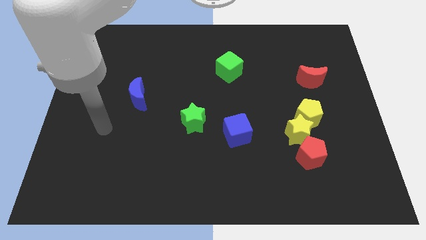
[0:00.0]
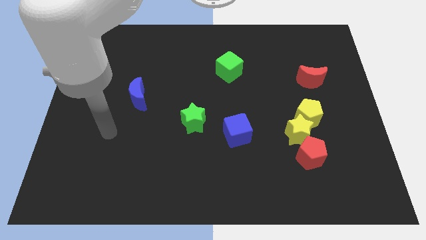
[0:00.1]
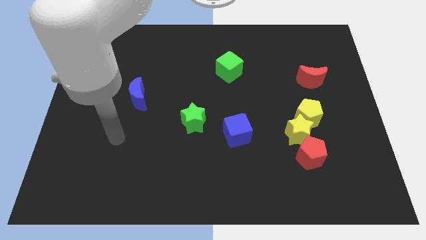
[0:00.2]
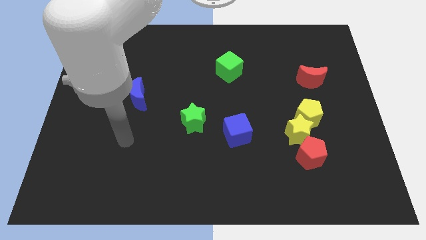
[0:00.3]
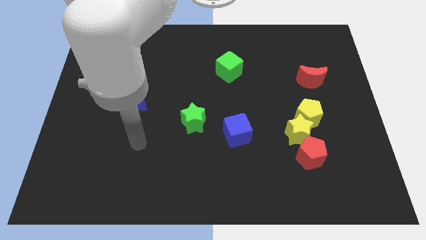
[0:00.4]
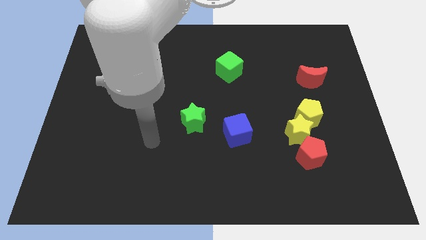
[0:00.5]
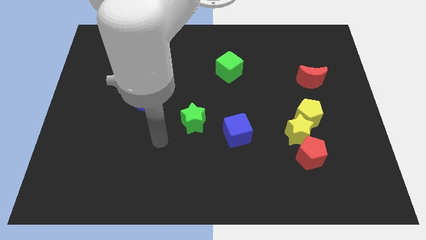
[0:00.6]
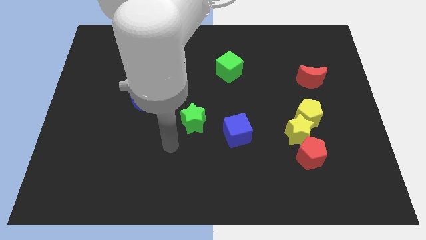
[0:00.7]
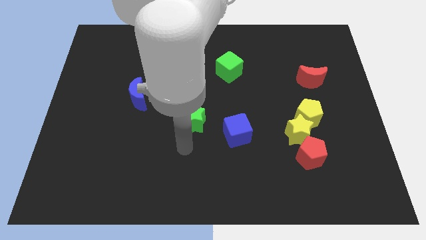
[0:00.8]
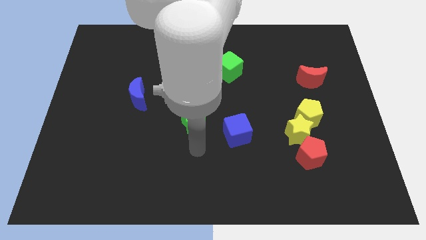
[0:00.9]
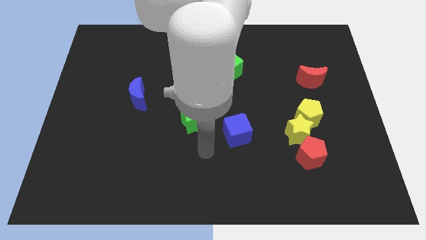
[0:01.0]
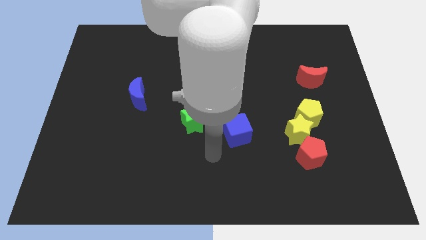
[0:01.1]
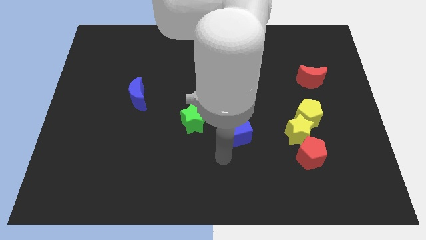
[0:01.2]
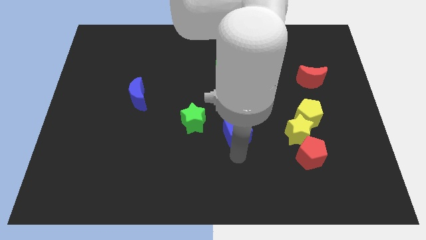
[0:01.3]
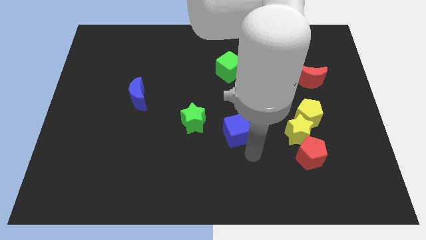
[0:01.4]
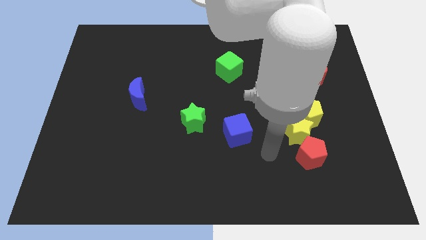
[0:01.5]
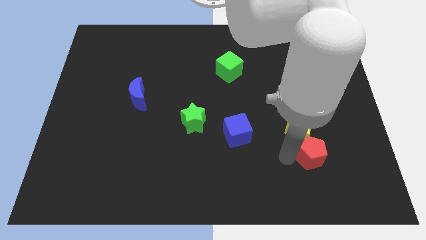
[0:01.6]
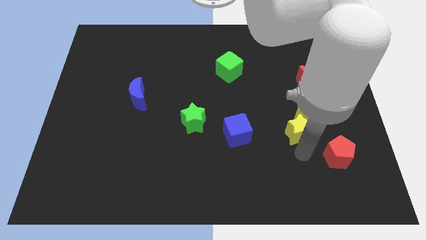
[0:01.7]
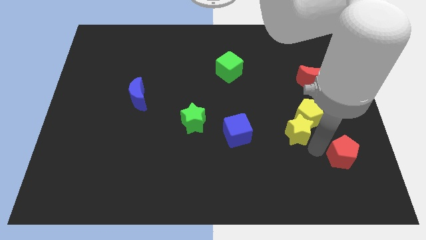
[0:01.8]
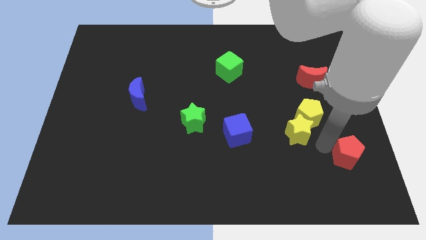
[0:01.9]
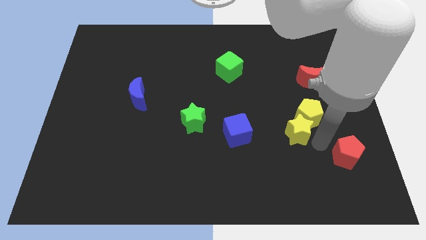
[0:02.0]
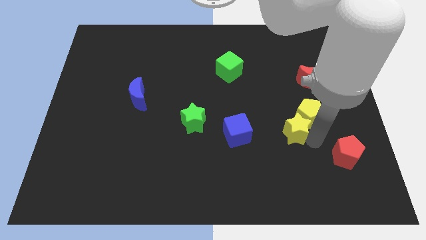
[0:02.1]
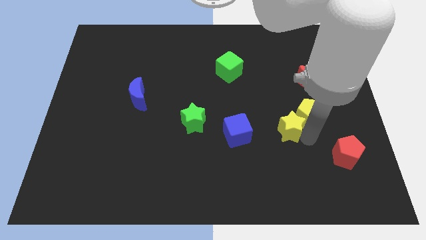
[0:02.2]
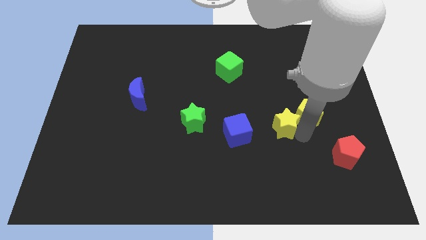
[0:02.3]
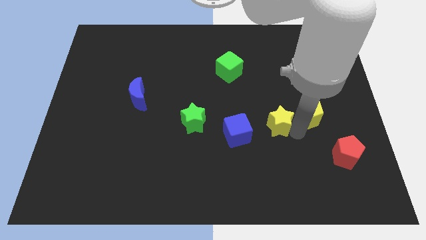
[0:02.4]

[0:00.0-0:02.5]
pull the yellow star apart from the yellow pentagon and red pentagon

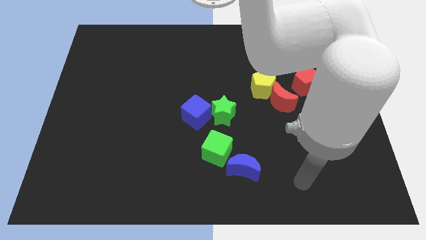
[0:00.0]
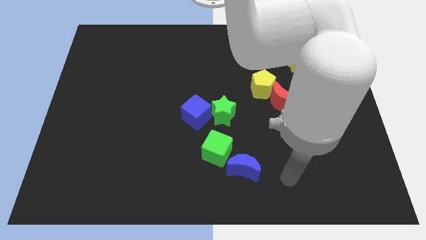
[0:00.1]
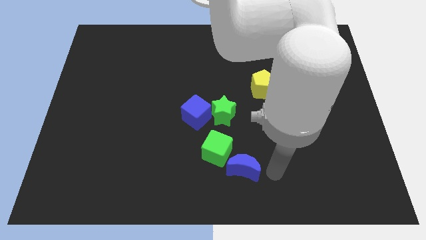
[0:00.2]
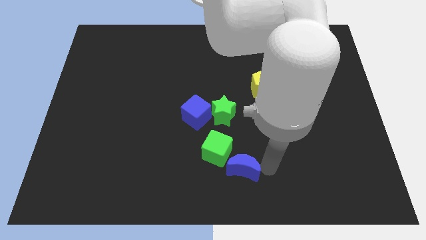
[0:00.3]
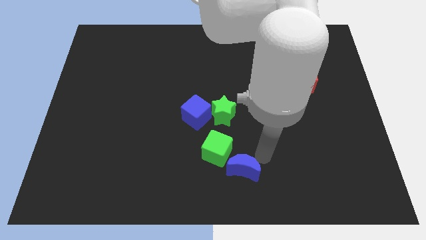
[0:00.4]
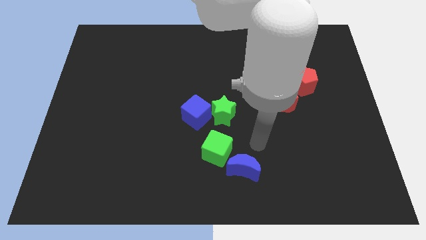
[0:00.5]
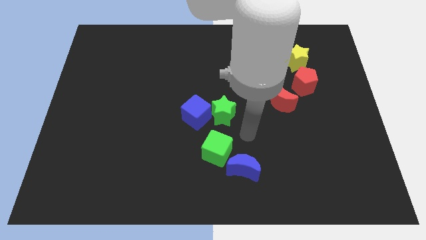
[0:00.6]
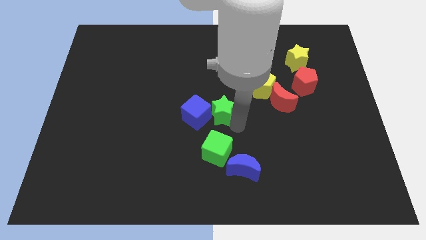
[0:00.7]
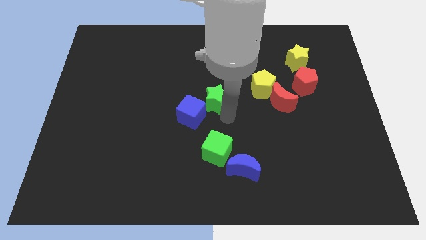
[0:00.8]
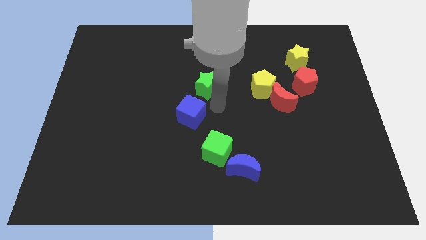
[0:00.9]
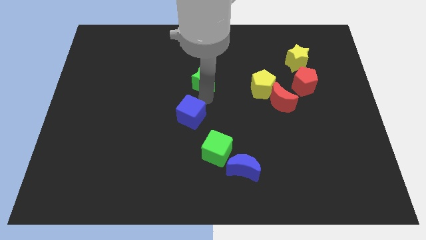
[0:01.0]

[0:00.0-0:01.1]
separate the blue cube from the green star

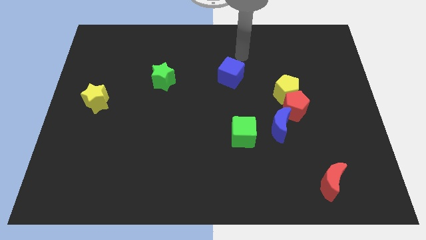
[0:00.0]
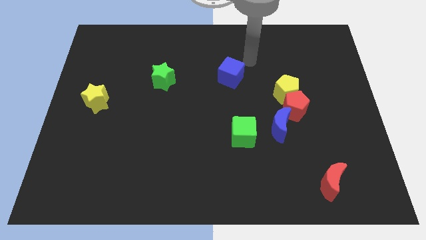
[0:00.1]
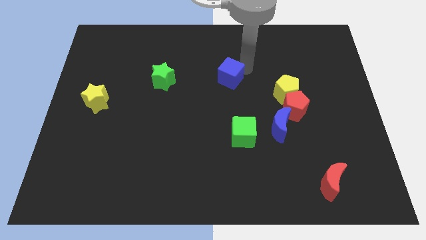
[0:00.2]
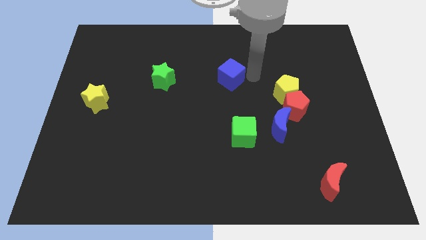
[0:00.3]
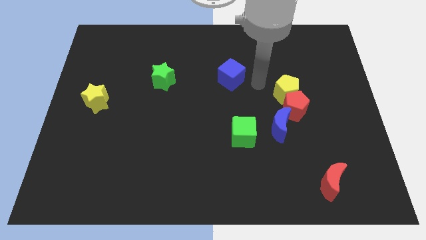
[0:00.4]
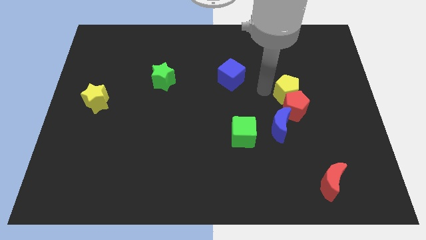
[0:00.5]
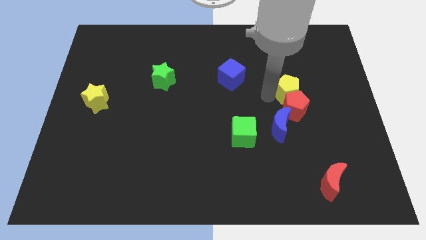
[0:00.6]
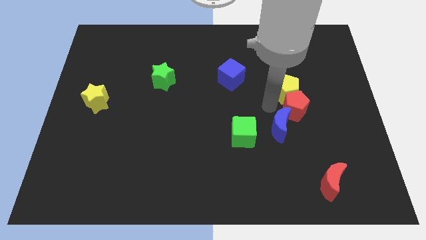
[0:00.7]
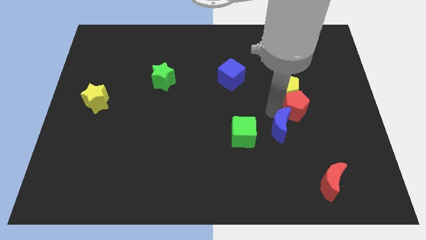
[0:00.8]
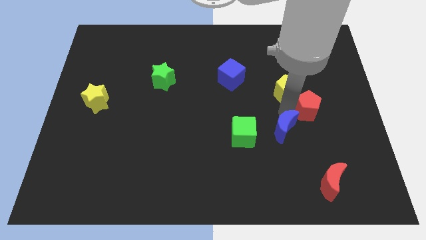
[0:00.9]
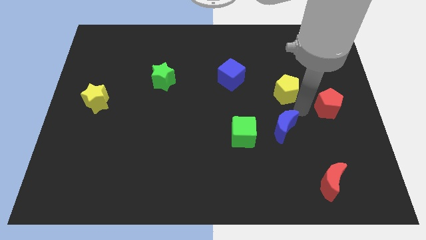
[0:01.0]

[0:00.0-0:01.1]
separate the yellow pentagon from the red pentagon

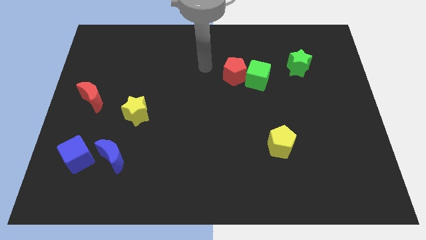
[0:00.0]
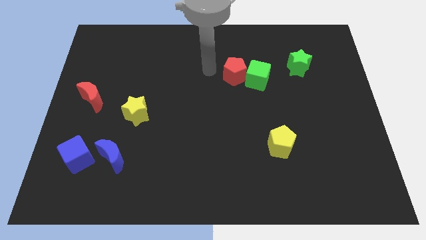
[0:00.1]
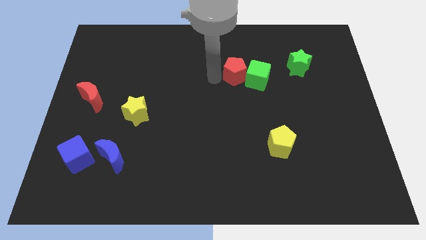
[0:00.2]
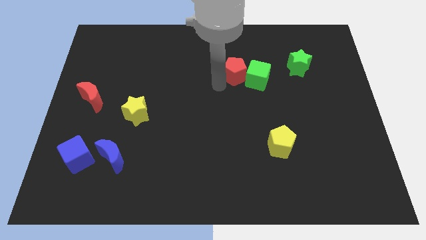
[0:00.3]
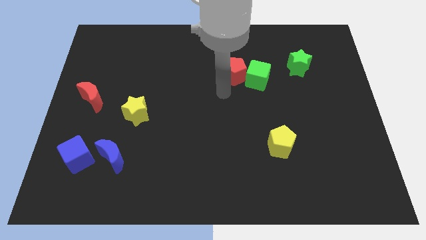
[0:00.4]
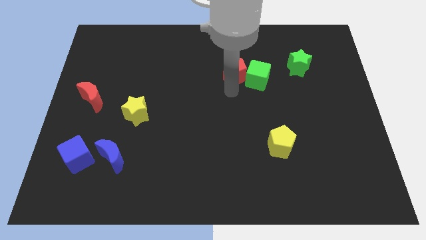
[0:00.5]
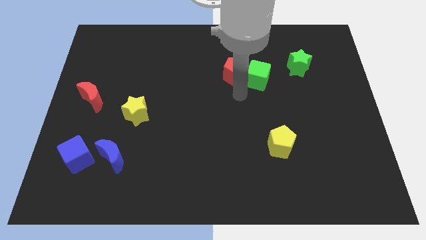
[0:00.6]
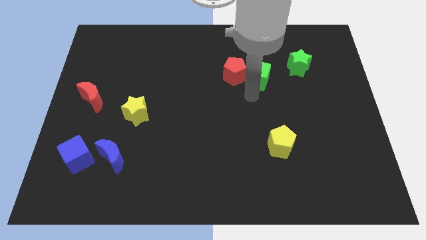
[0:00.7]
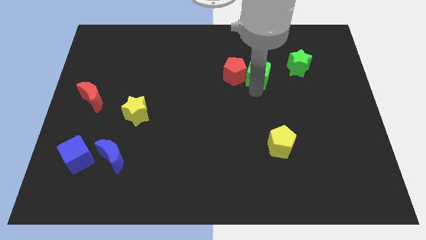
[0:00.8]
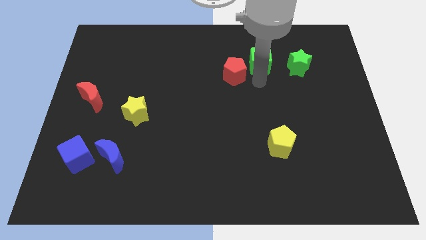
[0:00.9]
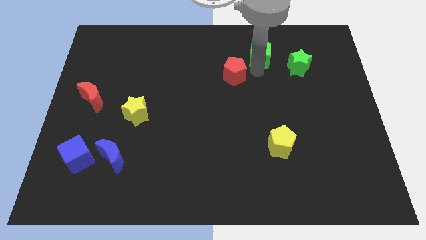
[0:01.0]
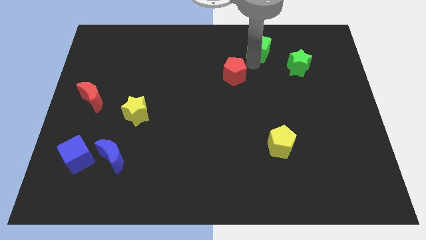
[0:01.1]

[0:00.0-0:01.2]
pull the red pentagon apart from the green cube

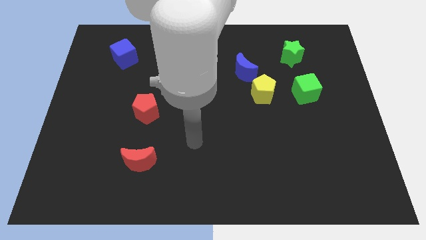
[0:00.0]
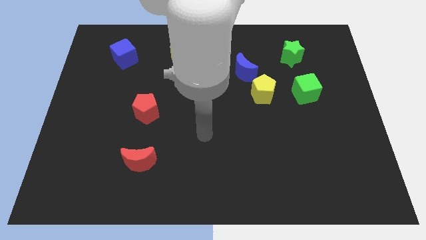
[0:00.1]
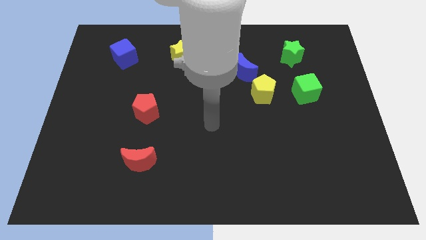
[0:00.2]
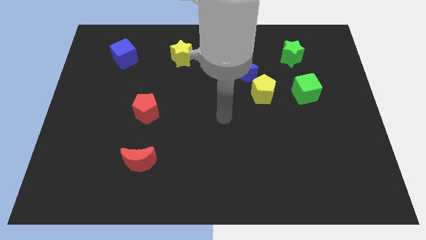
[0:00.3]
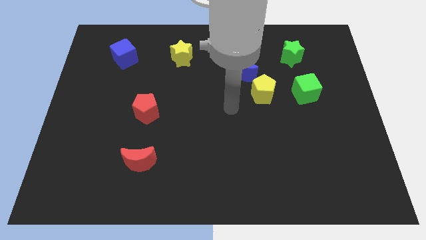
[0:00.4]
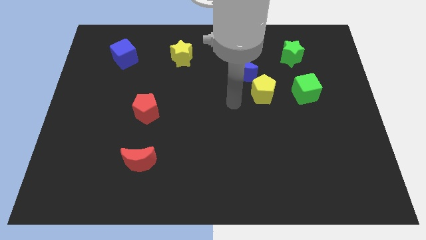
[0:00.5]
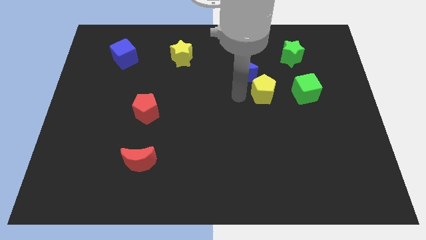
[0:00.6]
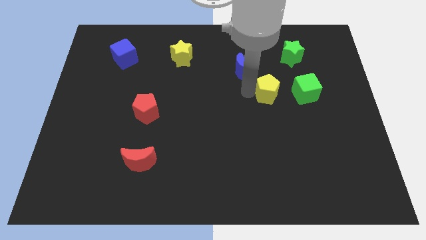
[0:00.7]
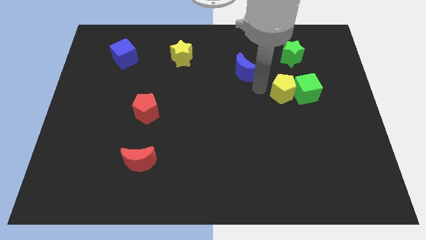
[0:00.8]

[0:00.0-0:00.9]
separate the blue moon from the yellow pentagon

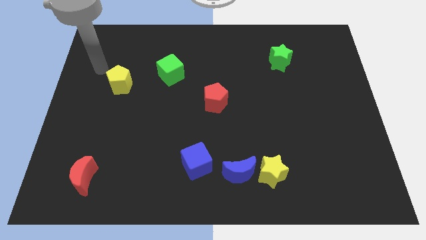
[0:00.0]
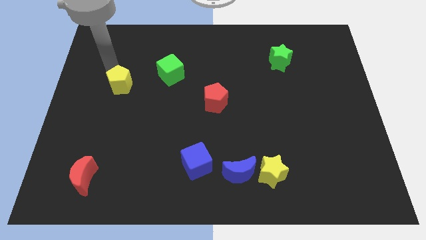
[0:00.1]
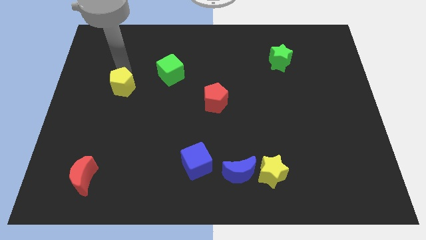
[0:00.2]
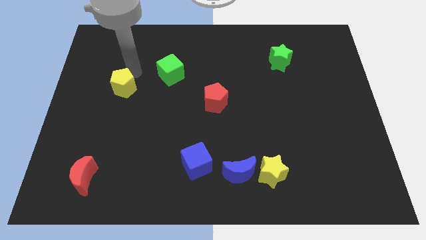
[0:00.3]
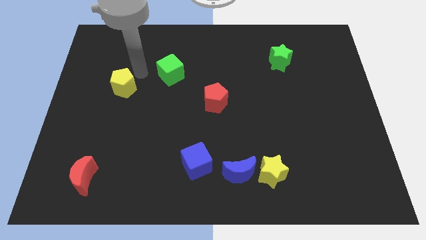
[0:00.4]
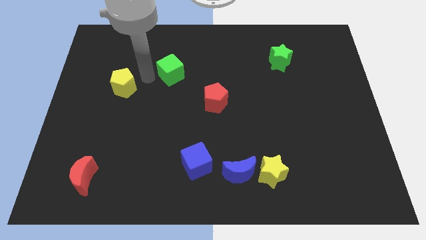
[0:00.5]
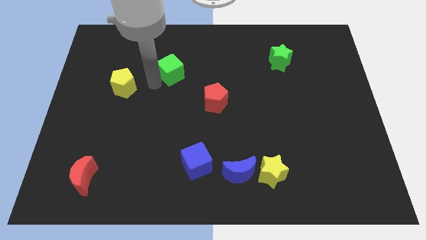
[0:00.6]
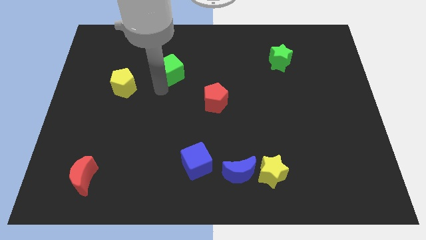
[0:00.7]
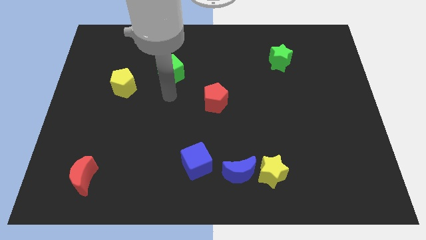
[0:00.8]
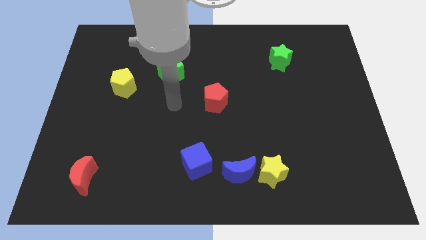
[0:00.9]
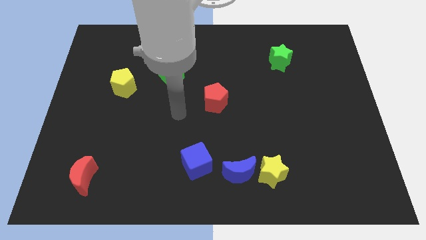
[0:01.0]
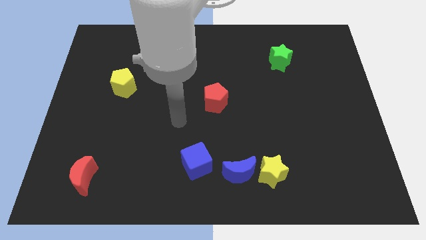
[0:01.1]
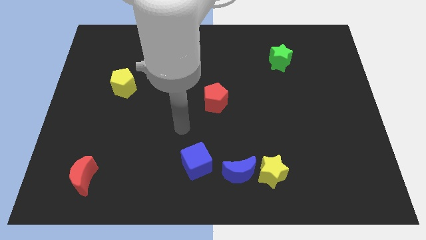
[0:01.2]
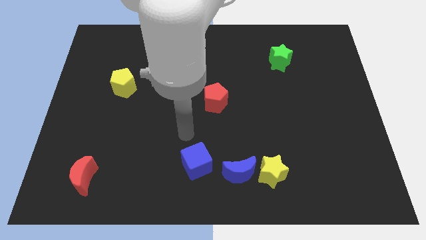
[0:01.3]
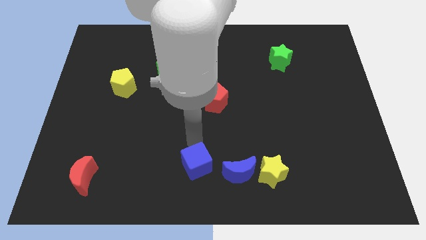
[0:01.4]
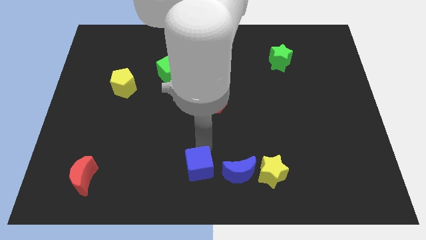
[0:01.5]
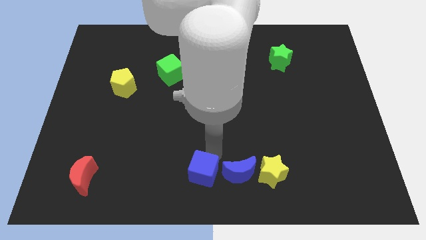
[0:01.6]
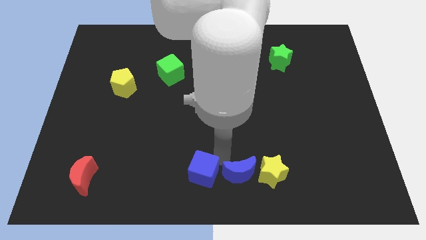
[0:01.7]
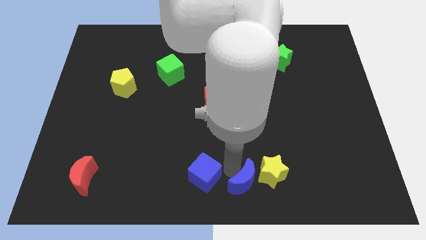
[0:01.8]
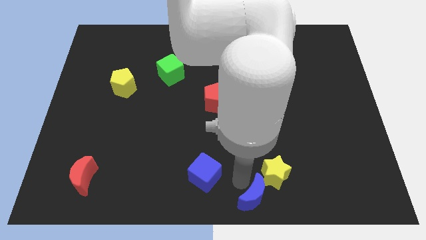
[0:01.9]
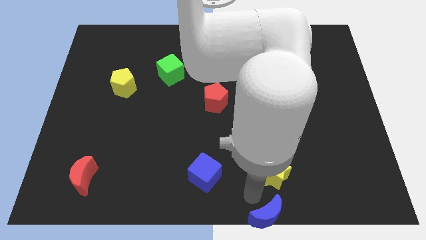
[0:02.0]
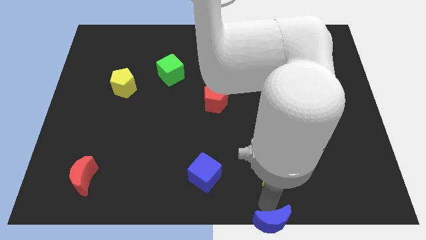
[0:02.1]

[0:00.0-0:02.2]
pull the yellow star apart from the blue moon

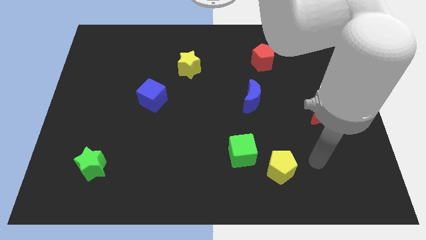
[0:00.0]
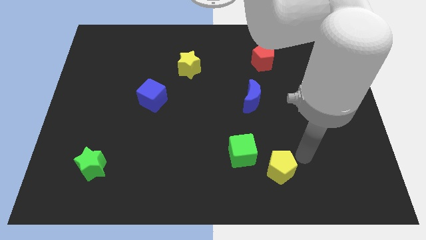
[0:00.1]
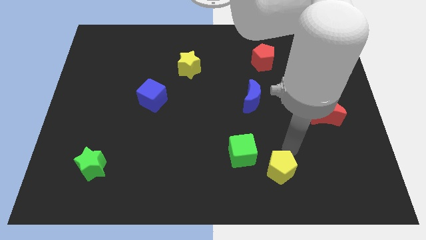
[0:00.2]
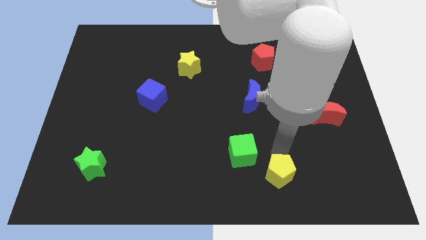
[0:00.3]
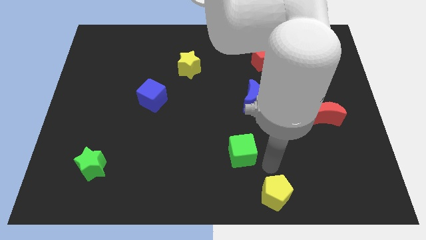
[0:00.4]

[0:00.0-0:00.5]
pull the green cube apart from the yellow pentagon
